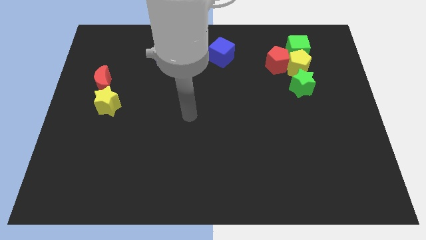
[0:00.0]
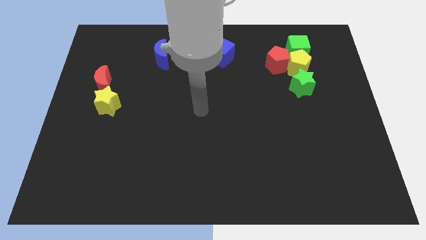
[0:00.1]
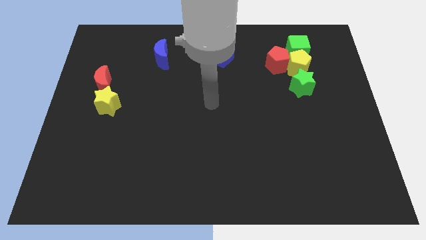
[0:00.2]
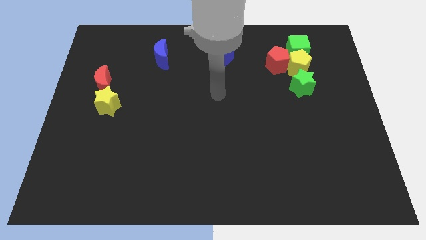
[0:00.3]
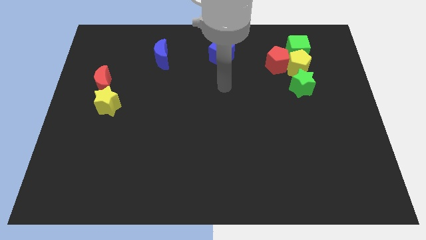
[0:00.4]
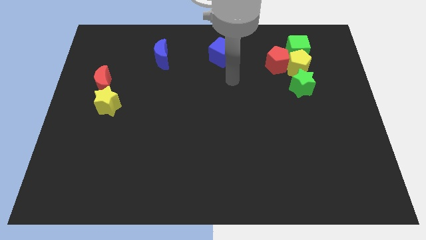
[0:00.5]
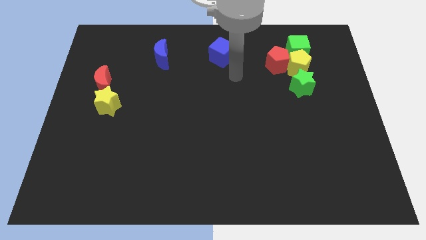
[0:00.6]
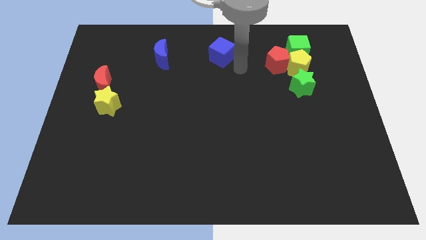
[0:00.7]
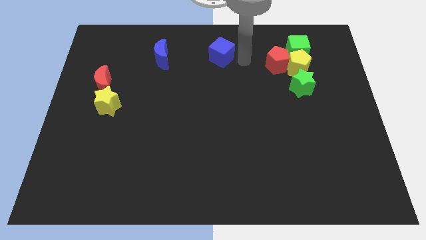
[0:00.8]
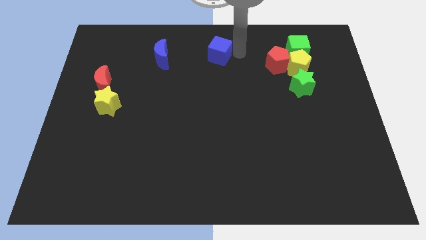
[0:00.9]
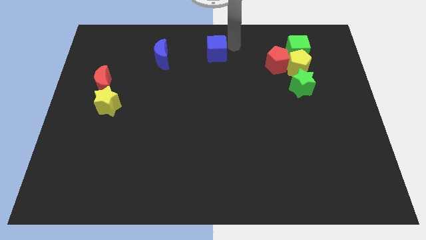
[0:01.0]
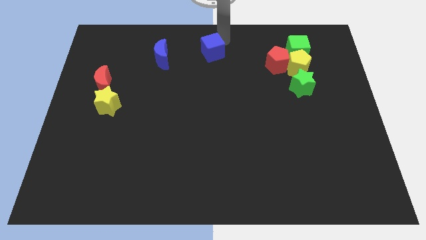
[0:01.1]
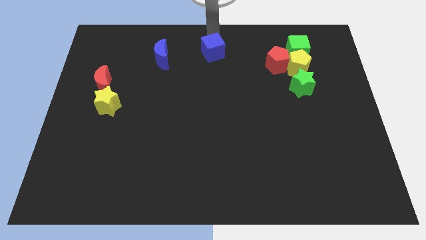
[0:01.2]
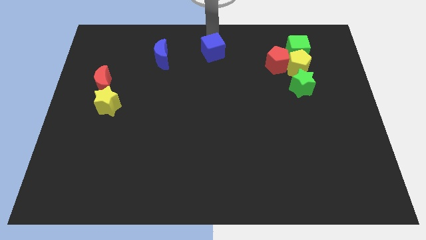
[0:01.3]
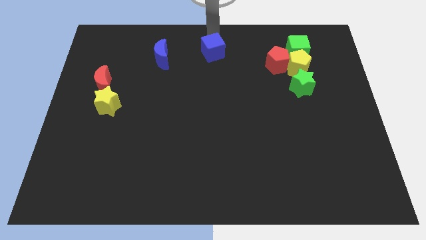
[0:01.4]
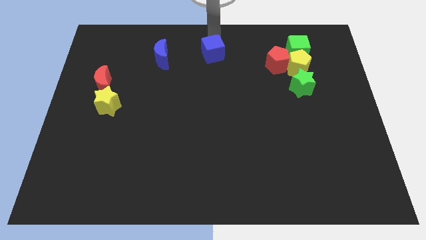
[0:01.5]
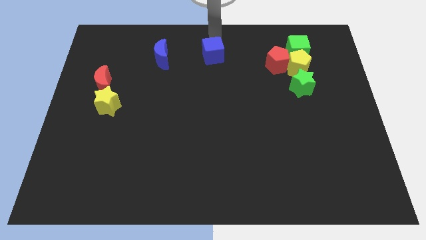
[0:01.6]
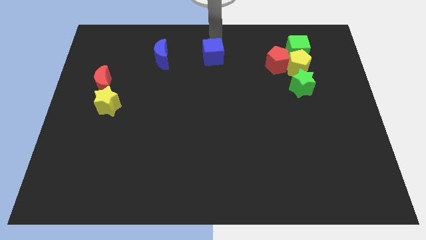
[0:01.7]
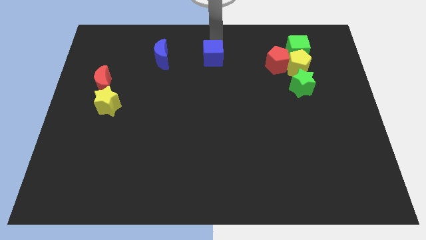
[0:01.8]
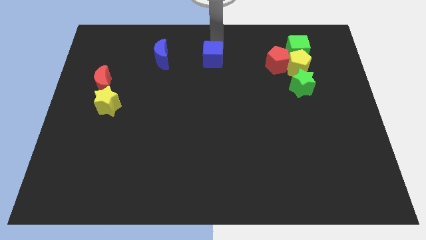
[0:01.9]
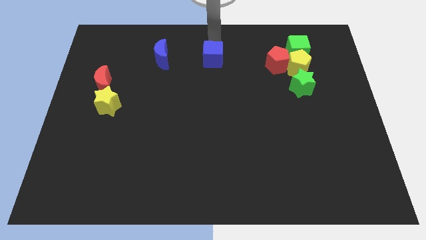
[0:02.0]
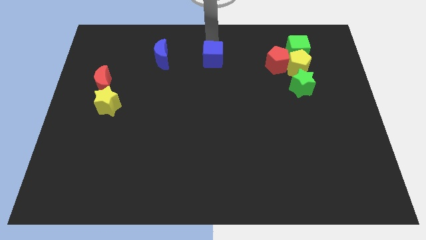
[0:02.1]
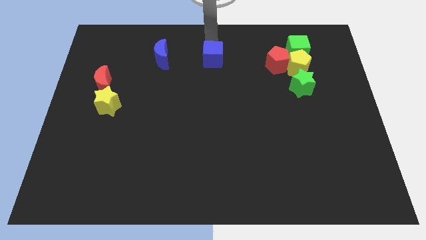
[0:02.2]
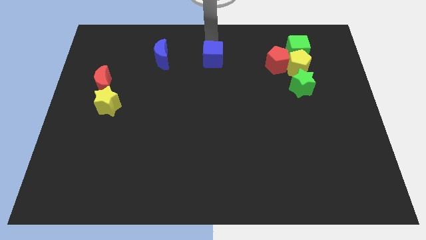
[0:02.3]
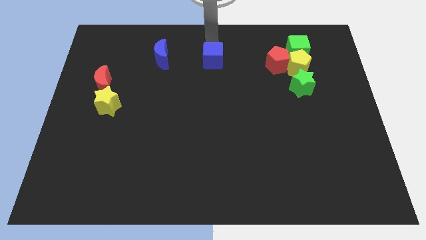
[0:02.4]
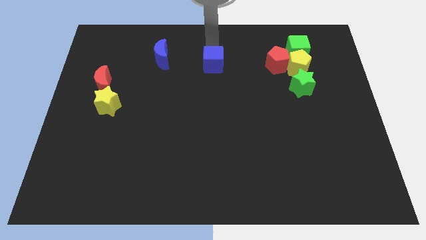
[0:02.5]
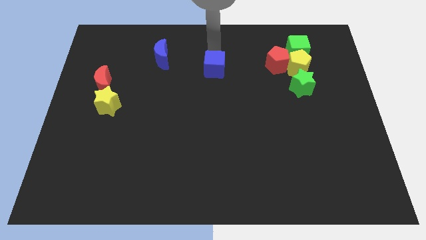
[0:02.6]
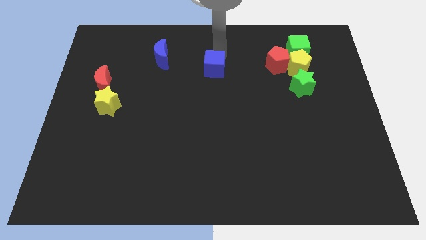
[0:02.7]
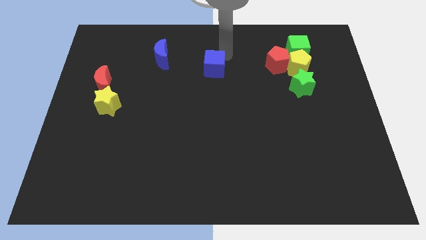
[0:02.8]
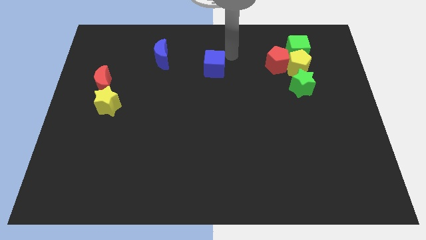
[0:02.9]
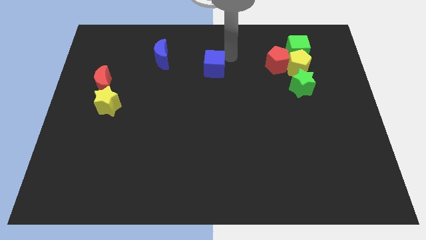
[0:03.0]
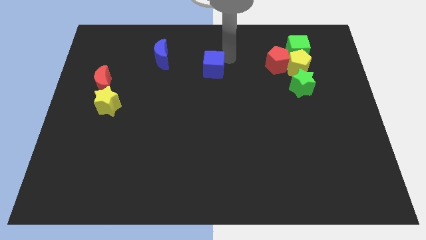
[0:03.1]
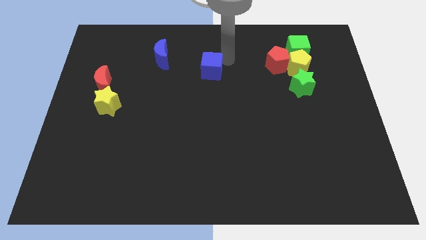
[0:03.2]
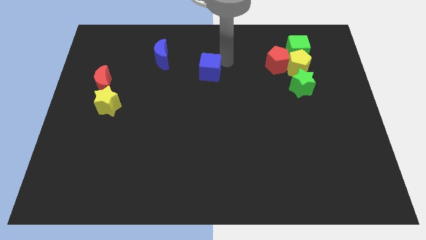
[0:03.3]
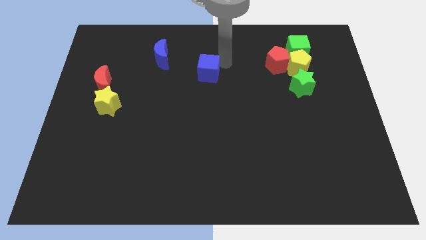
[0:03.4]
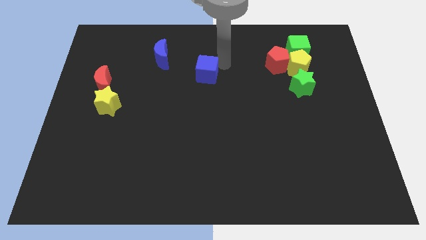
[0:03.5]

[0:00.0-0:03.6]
slide the blue cube diagonally down and left a little bit

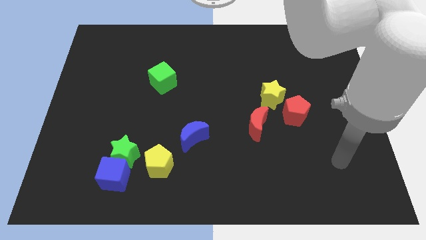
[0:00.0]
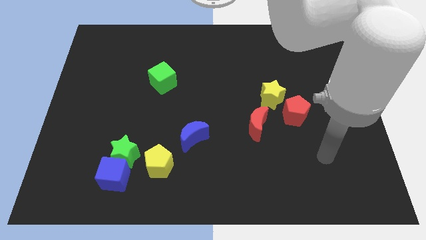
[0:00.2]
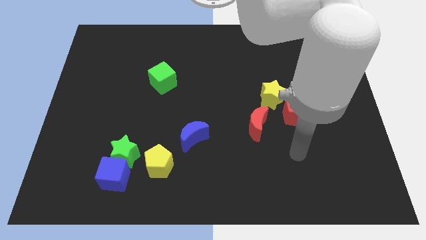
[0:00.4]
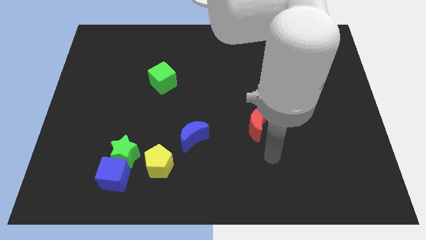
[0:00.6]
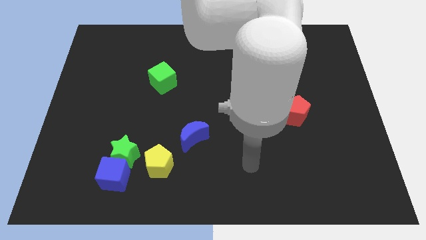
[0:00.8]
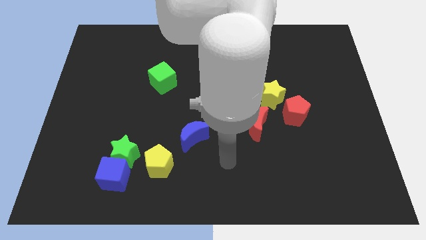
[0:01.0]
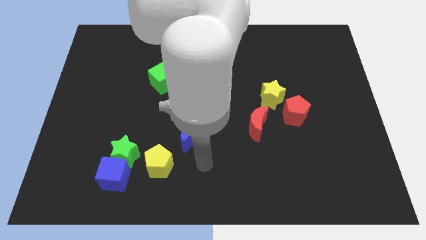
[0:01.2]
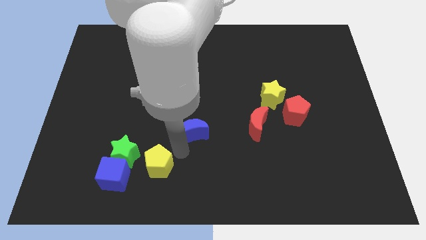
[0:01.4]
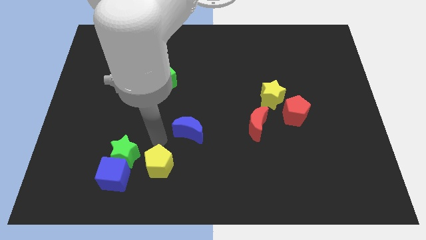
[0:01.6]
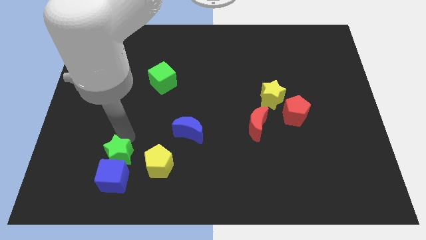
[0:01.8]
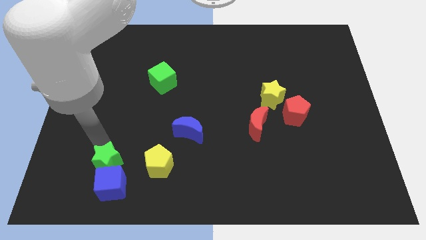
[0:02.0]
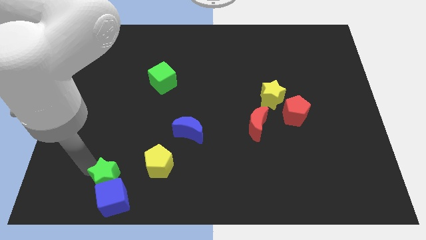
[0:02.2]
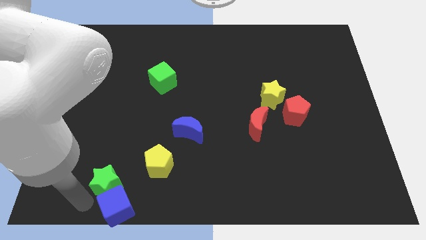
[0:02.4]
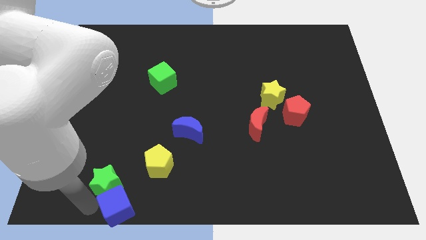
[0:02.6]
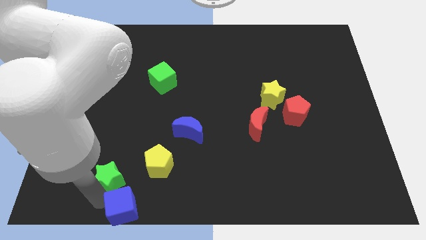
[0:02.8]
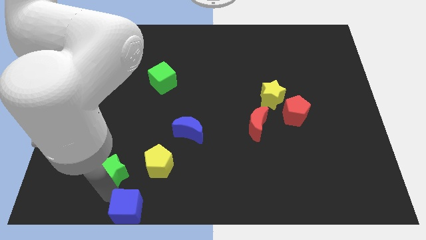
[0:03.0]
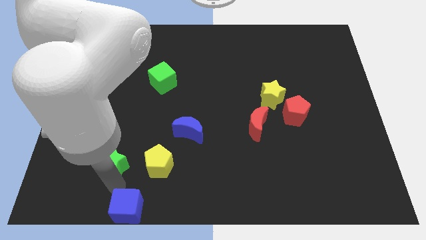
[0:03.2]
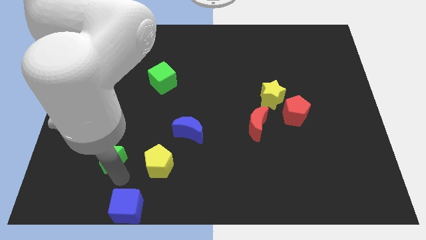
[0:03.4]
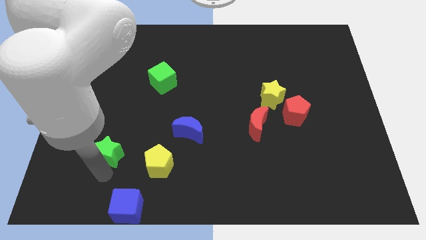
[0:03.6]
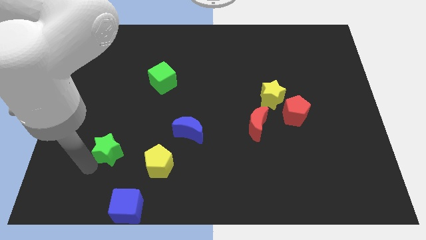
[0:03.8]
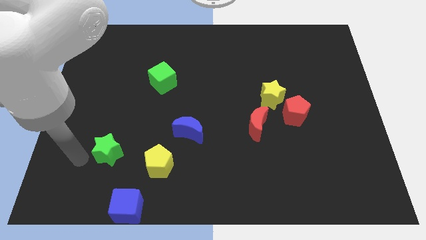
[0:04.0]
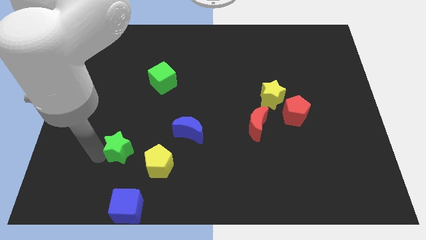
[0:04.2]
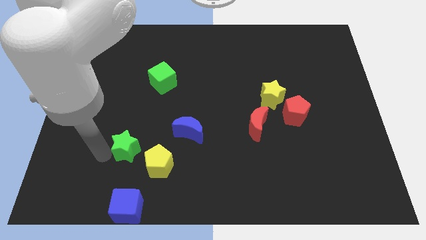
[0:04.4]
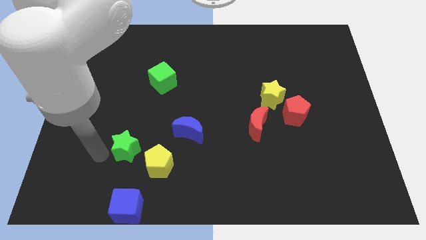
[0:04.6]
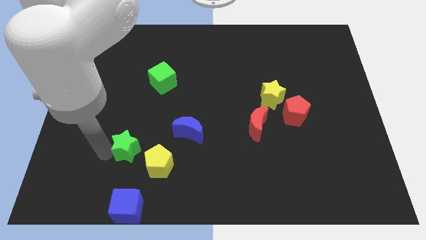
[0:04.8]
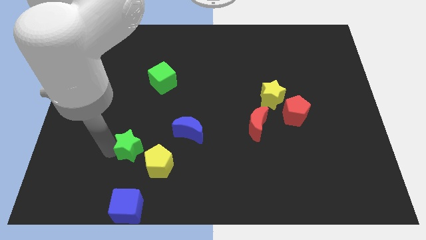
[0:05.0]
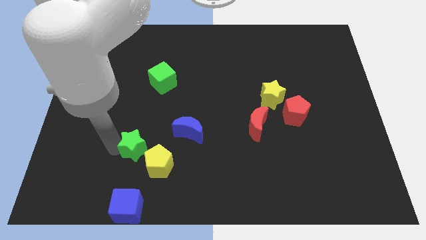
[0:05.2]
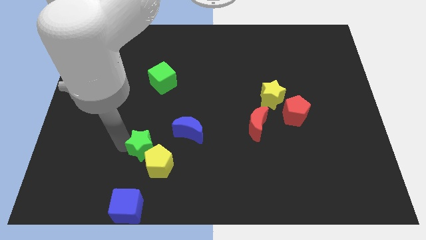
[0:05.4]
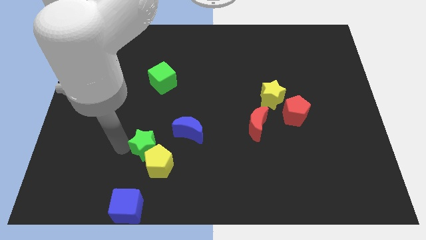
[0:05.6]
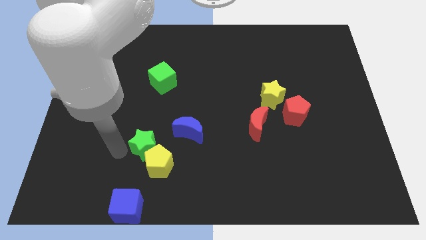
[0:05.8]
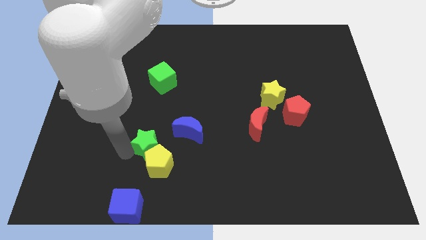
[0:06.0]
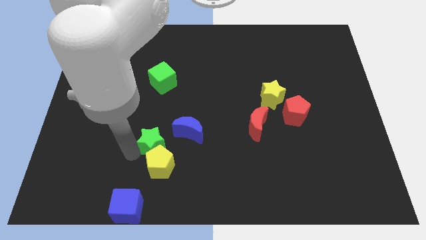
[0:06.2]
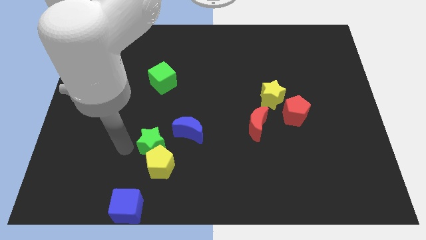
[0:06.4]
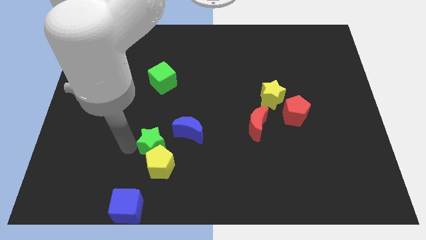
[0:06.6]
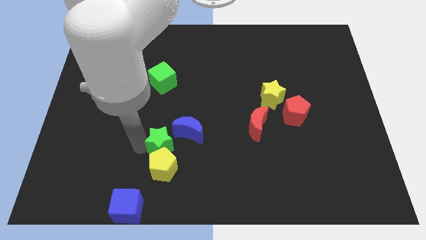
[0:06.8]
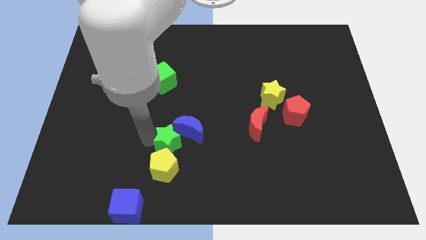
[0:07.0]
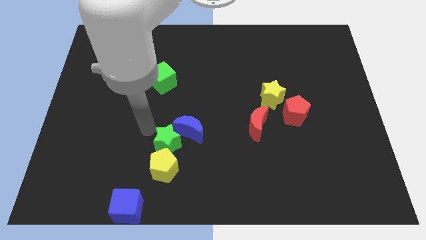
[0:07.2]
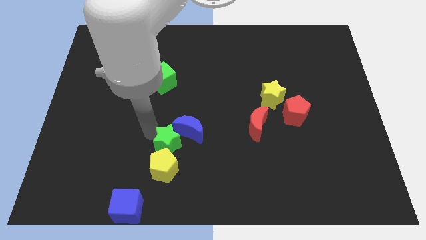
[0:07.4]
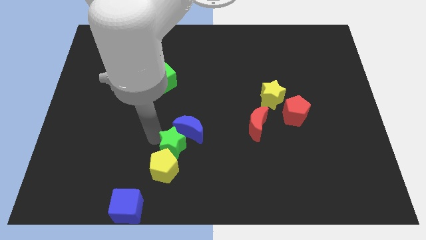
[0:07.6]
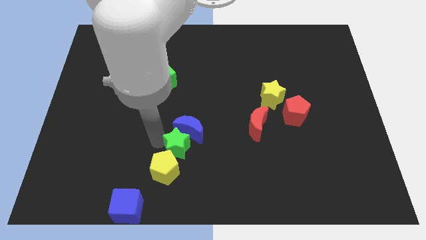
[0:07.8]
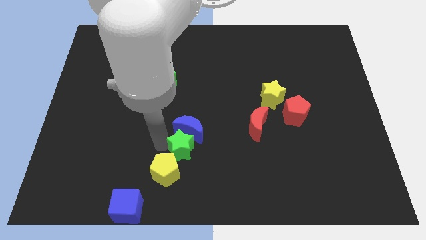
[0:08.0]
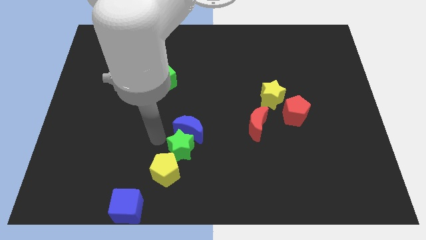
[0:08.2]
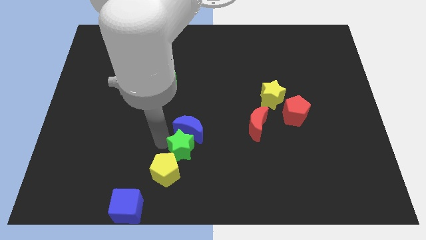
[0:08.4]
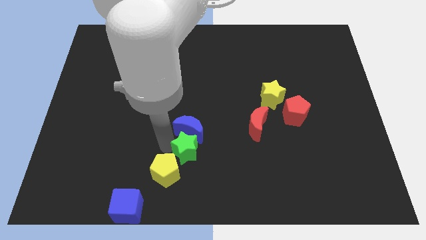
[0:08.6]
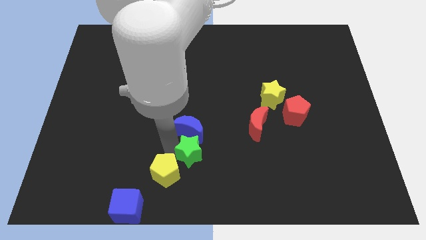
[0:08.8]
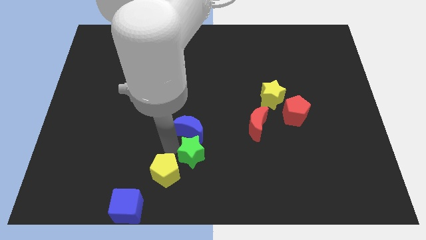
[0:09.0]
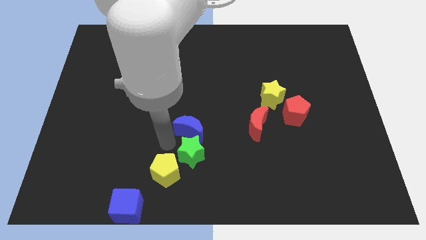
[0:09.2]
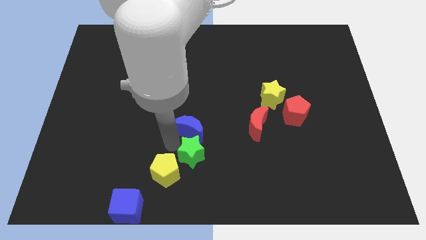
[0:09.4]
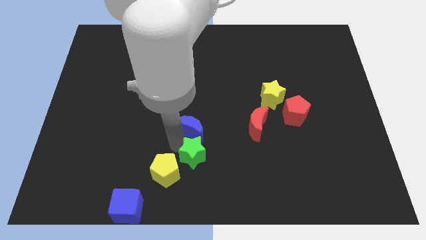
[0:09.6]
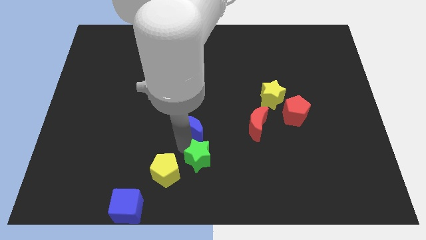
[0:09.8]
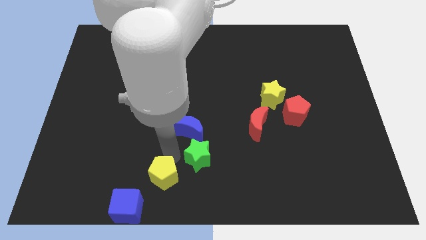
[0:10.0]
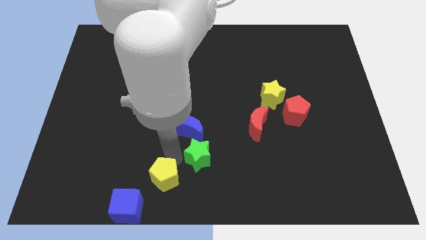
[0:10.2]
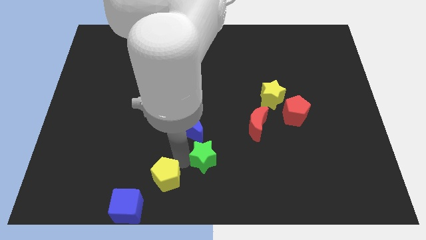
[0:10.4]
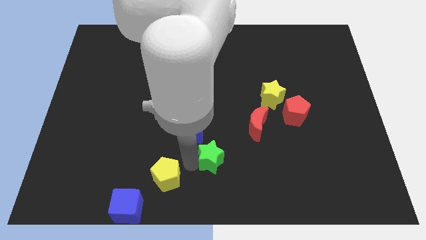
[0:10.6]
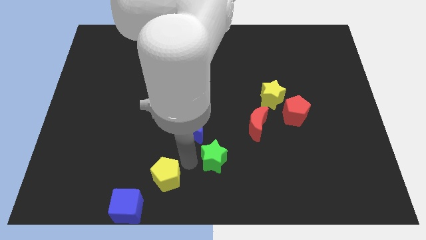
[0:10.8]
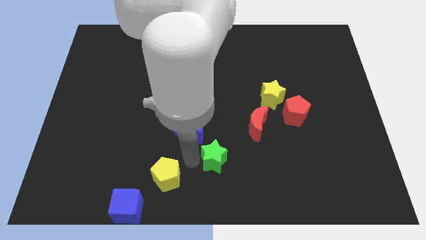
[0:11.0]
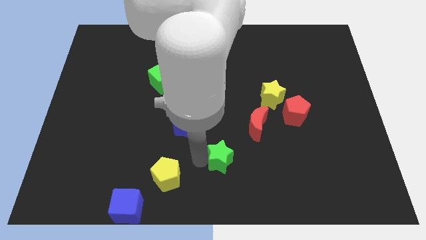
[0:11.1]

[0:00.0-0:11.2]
slide the green star right
